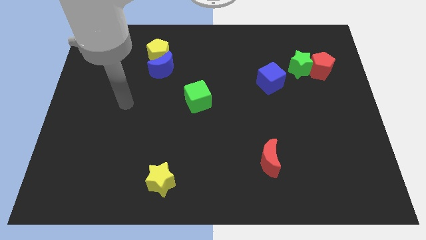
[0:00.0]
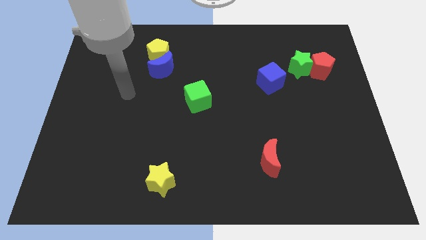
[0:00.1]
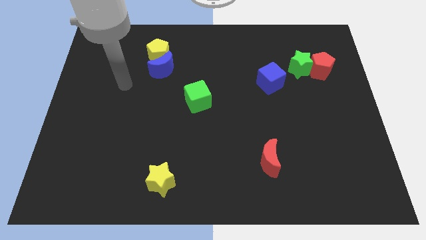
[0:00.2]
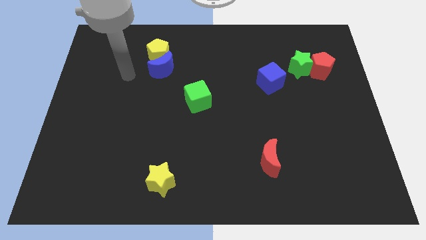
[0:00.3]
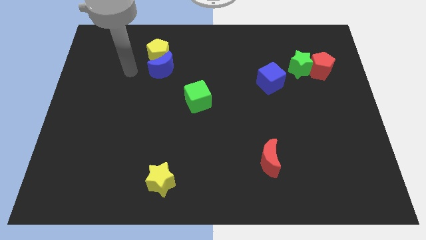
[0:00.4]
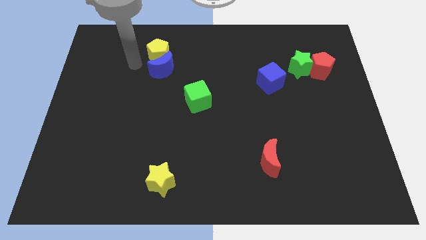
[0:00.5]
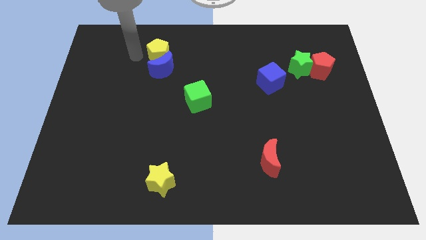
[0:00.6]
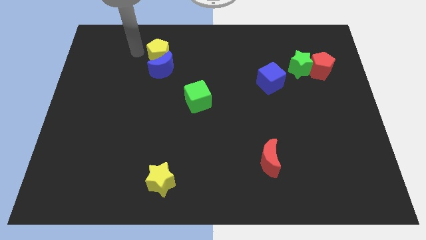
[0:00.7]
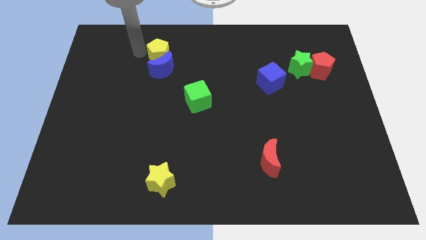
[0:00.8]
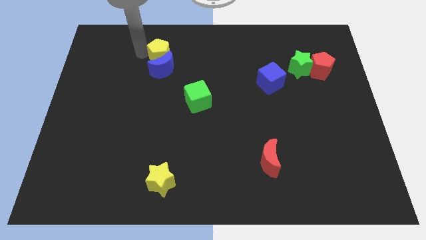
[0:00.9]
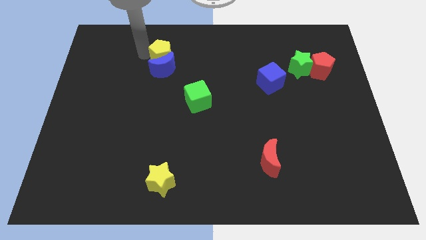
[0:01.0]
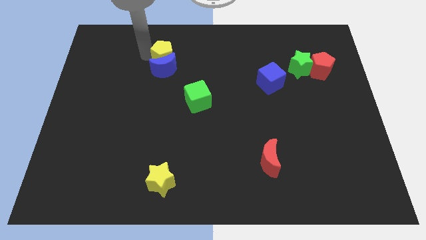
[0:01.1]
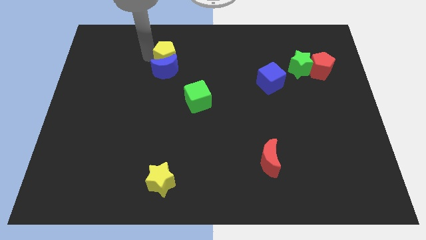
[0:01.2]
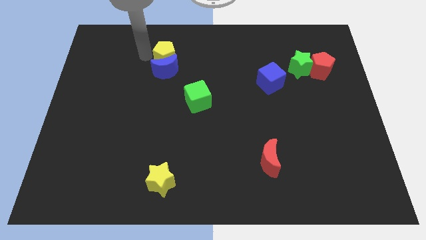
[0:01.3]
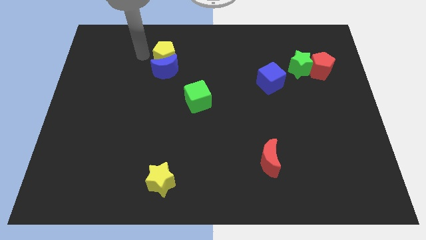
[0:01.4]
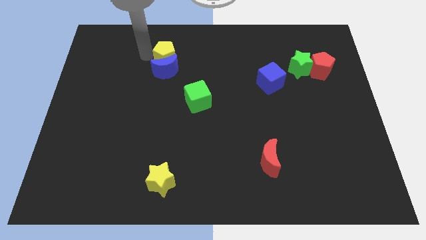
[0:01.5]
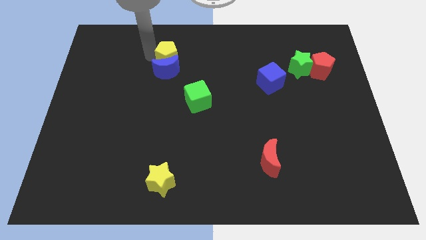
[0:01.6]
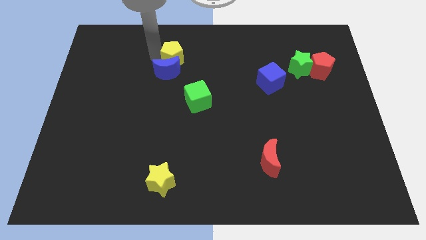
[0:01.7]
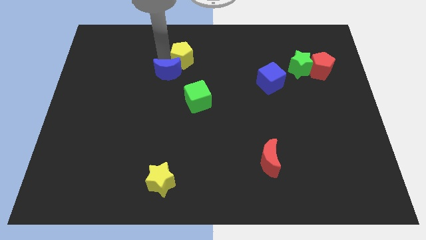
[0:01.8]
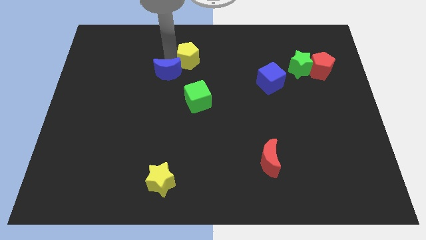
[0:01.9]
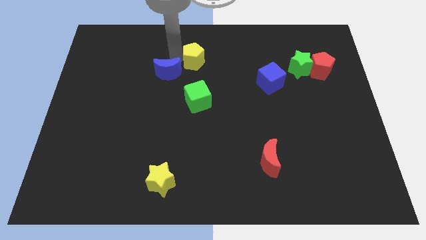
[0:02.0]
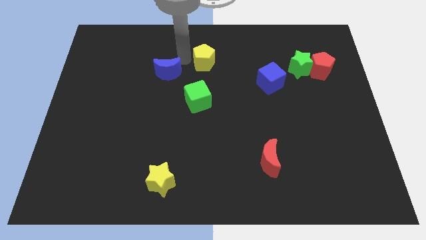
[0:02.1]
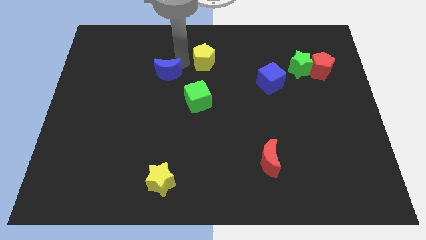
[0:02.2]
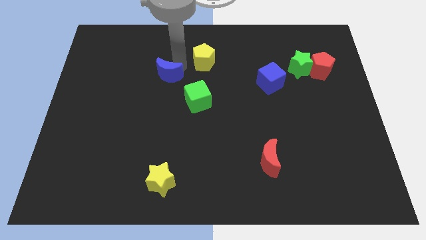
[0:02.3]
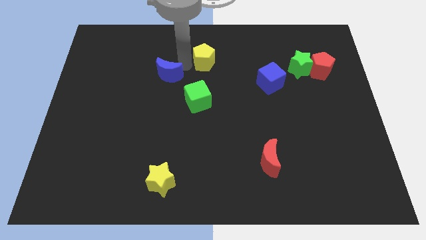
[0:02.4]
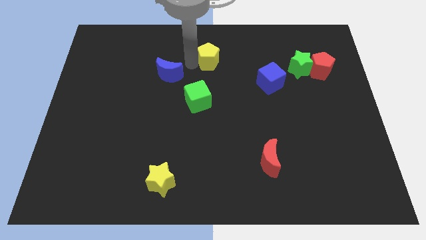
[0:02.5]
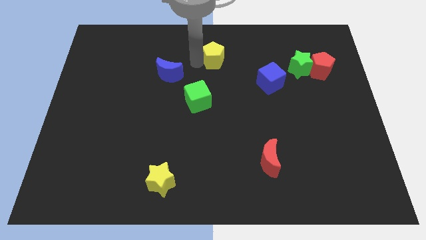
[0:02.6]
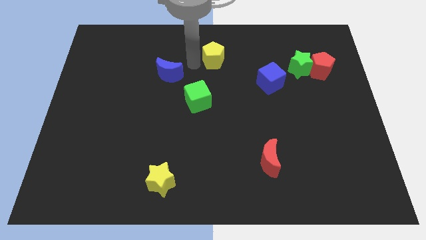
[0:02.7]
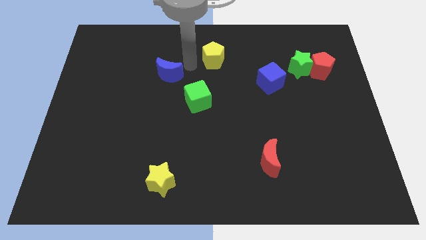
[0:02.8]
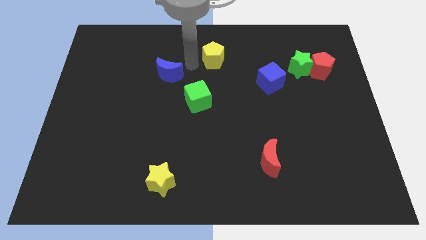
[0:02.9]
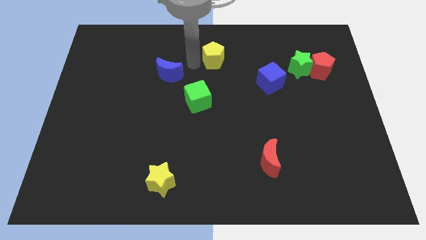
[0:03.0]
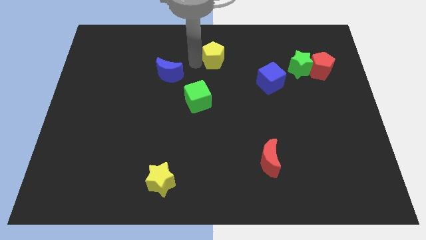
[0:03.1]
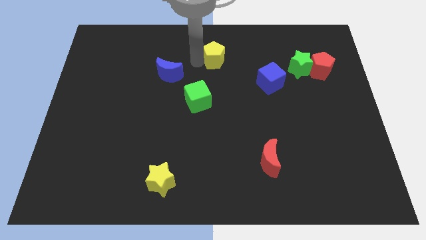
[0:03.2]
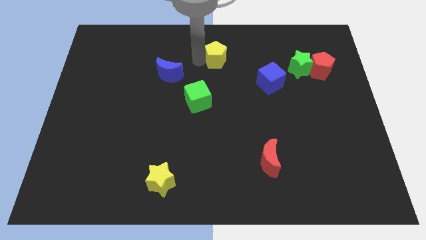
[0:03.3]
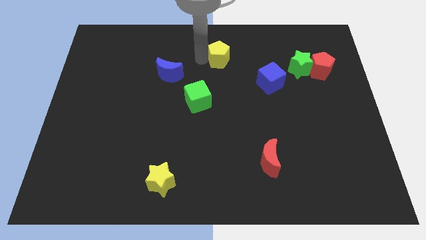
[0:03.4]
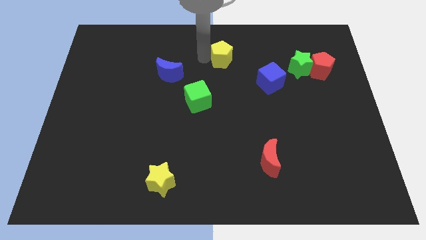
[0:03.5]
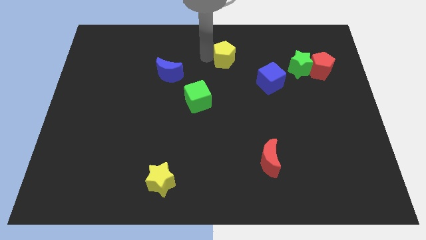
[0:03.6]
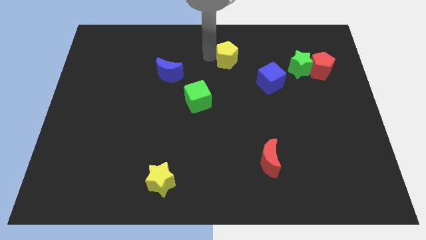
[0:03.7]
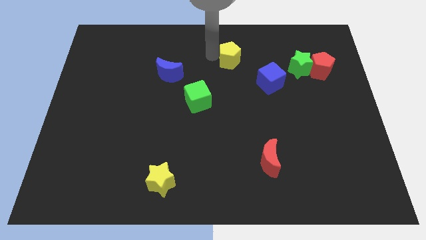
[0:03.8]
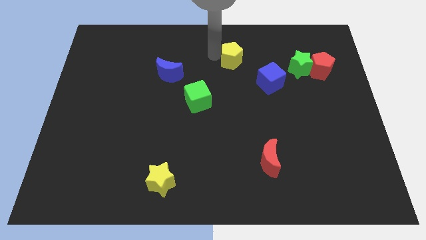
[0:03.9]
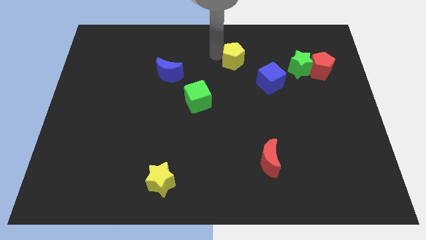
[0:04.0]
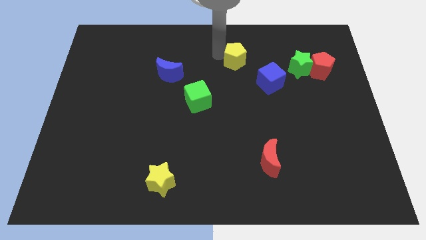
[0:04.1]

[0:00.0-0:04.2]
move the yellow pentagon to the right

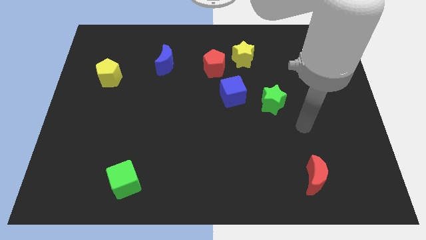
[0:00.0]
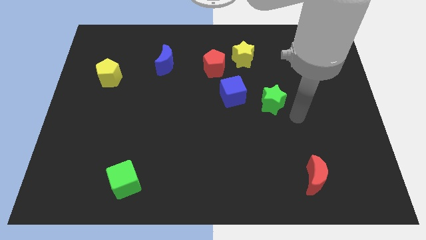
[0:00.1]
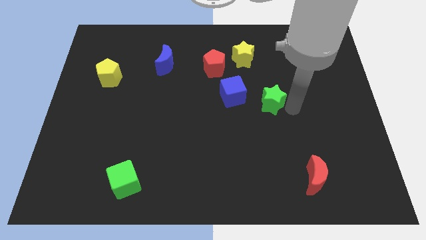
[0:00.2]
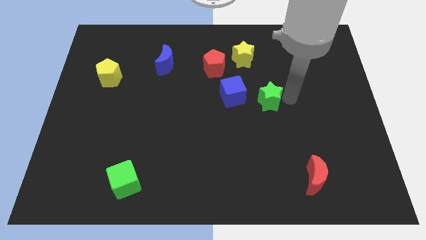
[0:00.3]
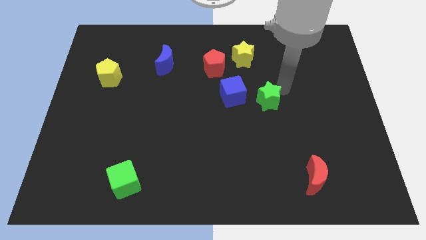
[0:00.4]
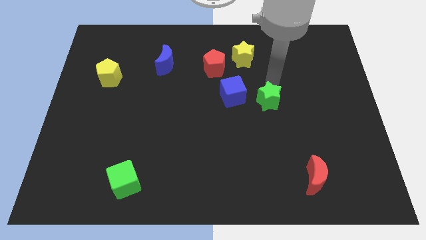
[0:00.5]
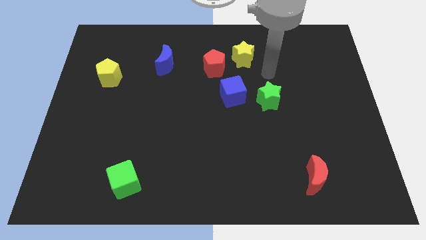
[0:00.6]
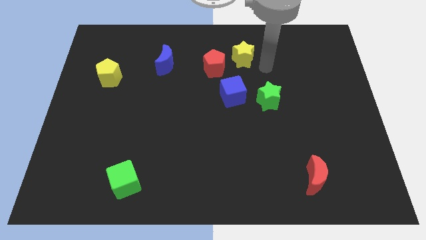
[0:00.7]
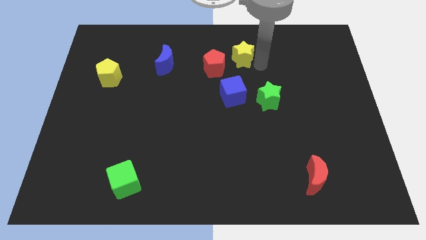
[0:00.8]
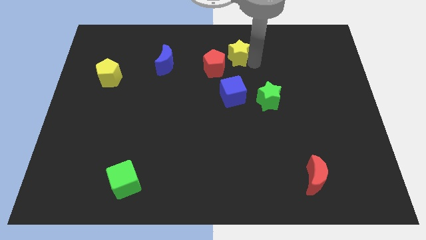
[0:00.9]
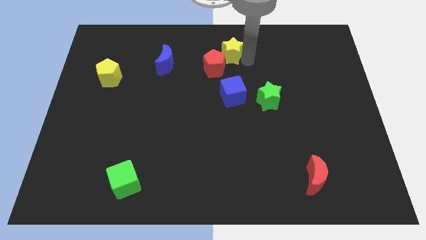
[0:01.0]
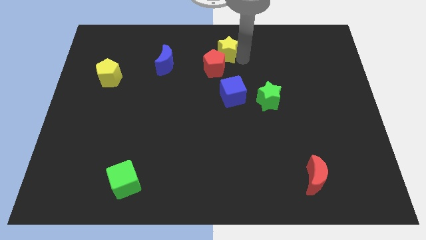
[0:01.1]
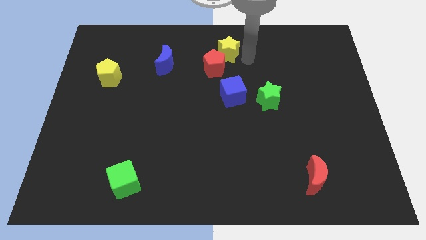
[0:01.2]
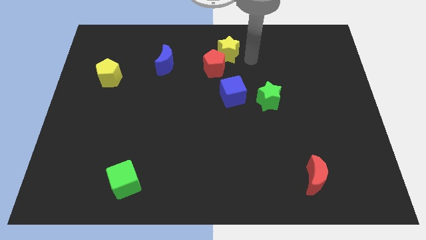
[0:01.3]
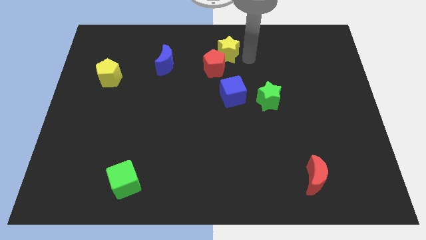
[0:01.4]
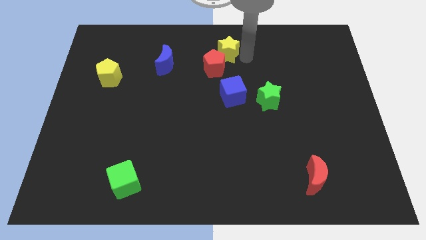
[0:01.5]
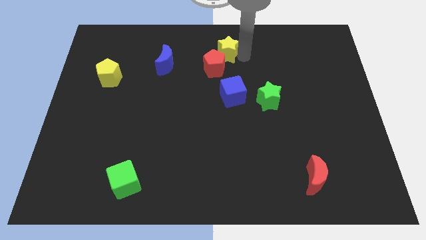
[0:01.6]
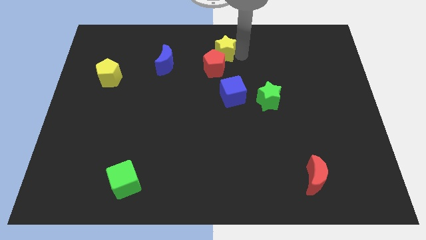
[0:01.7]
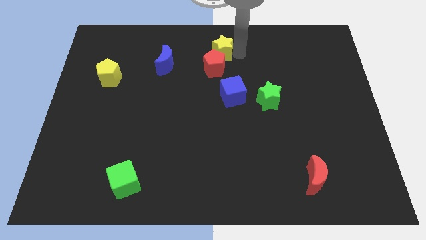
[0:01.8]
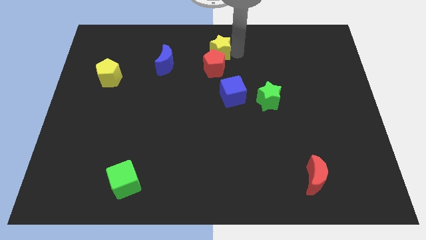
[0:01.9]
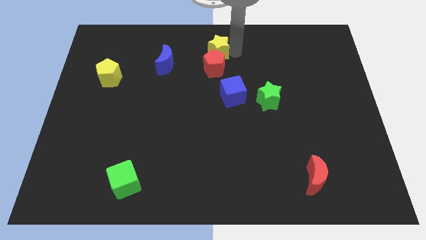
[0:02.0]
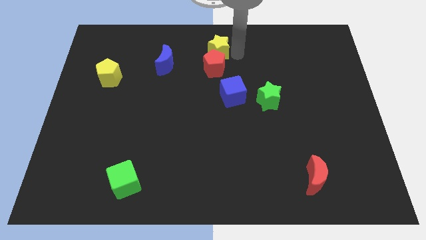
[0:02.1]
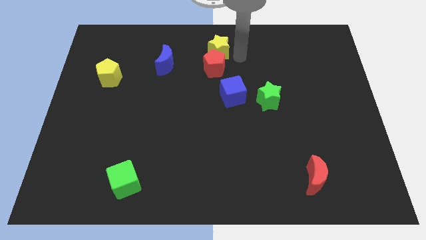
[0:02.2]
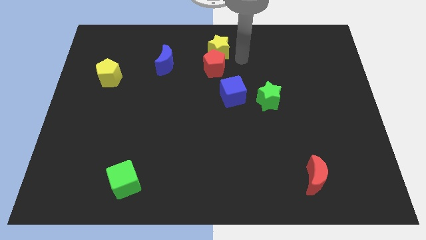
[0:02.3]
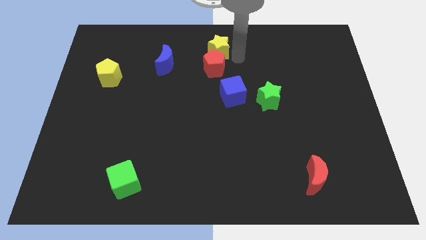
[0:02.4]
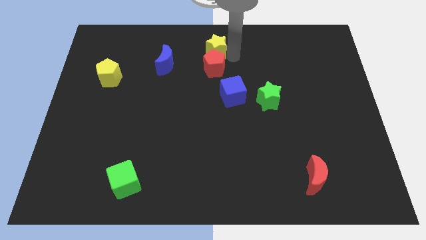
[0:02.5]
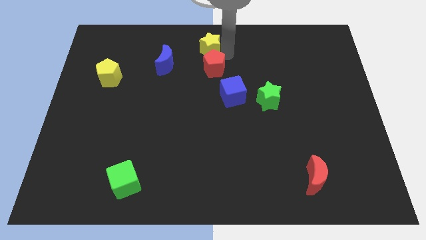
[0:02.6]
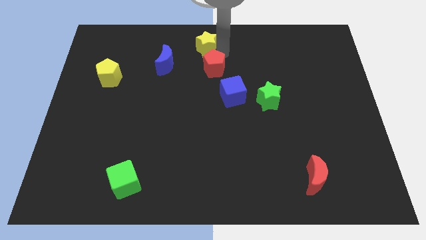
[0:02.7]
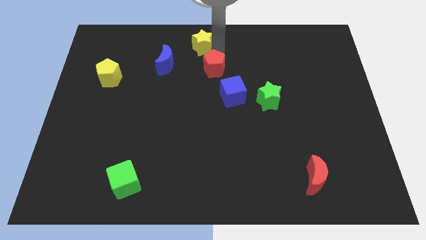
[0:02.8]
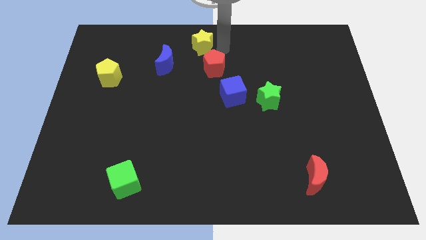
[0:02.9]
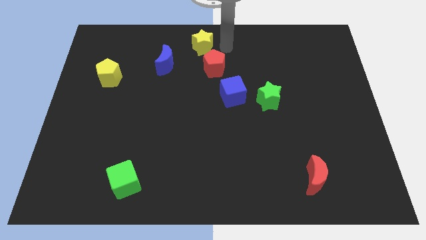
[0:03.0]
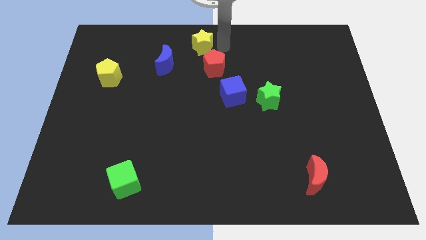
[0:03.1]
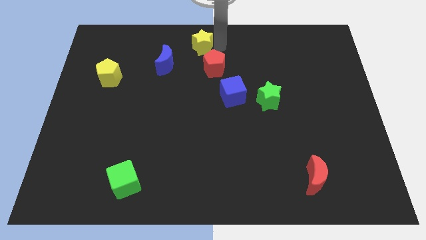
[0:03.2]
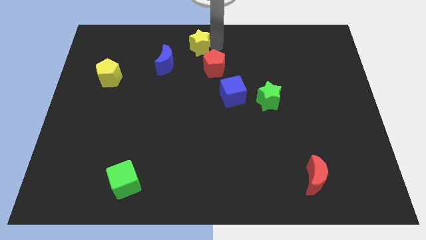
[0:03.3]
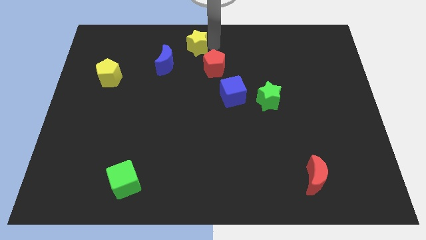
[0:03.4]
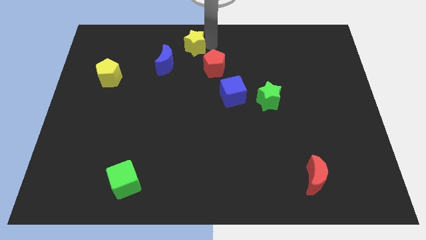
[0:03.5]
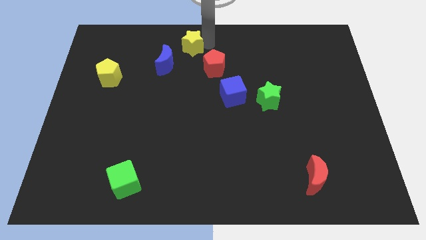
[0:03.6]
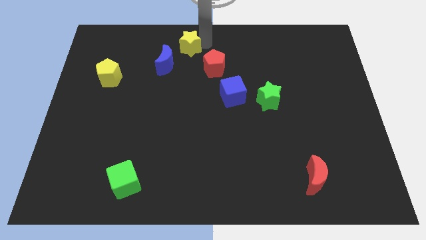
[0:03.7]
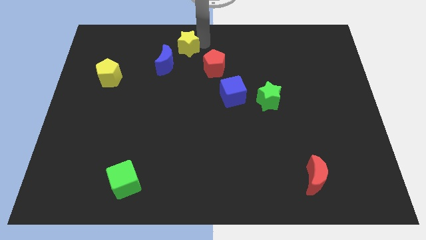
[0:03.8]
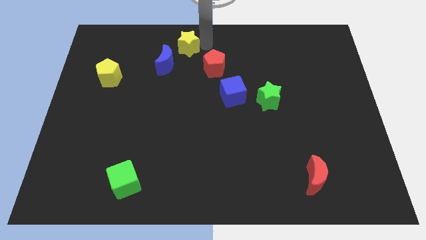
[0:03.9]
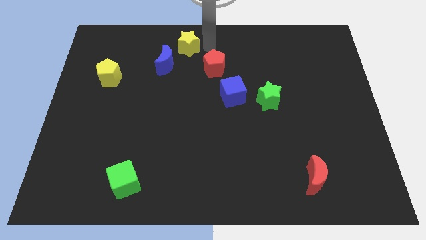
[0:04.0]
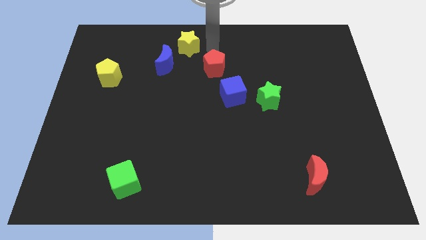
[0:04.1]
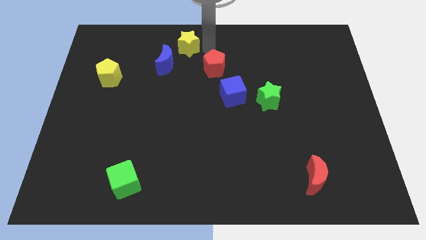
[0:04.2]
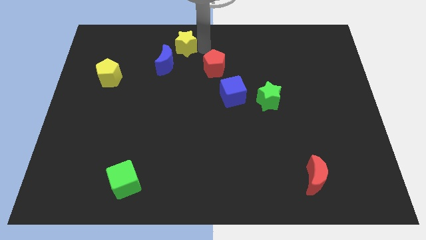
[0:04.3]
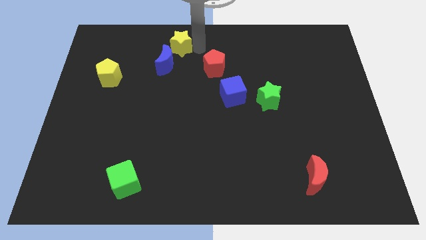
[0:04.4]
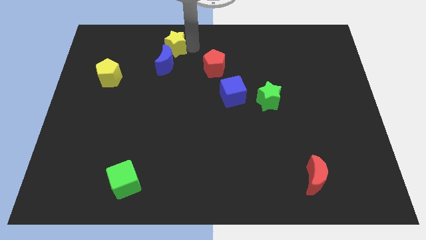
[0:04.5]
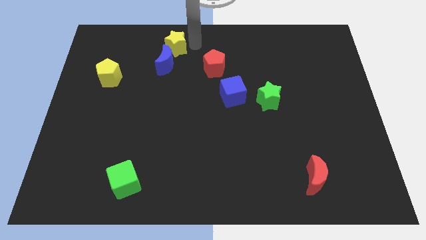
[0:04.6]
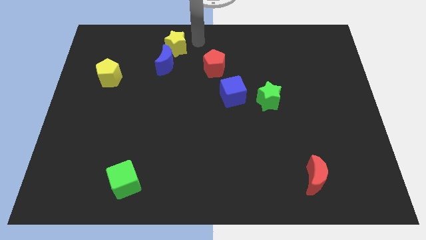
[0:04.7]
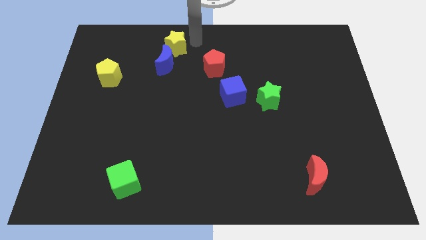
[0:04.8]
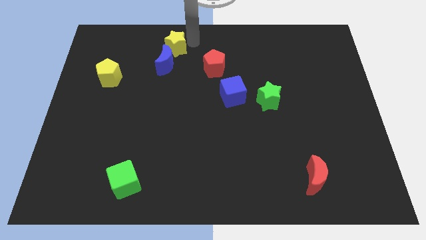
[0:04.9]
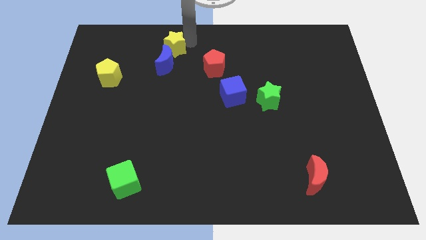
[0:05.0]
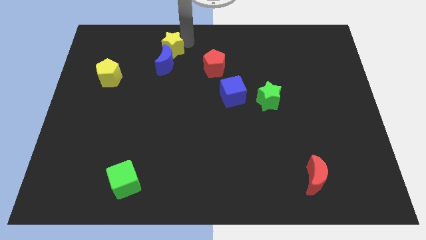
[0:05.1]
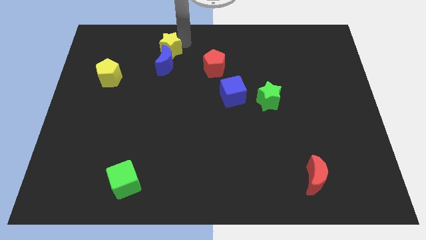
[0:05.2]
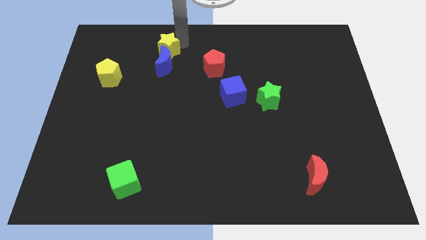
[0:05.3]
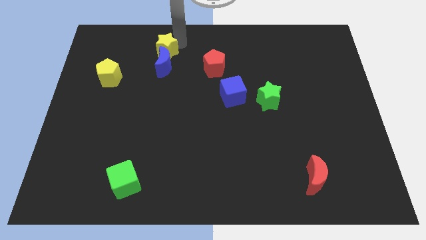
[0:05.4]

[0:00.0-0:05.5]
slide the yellow star left
